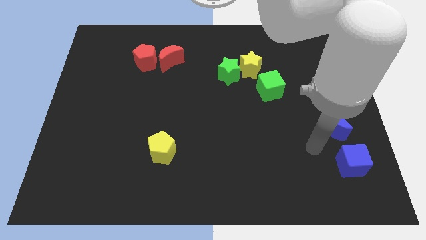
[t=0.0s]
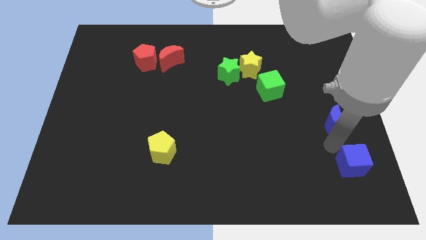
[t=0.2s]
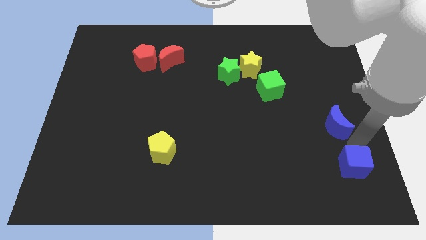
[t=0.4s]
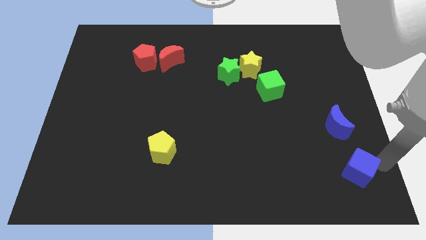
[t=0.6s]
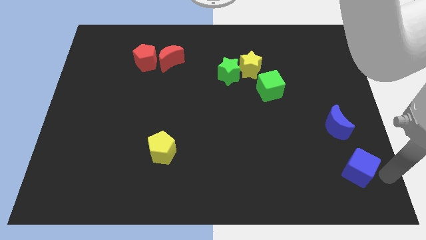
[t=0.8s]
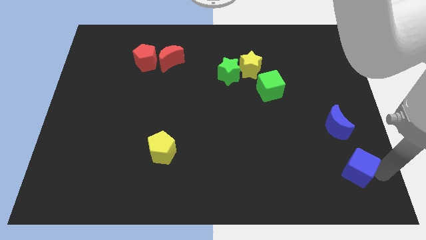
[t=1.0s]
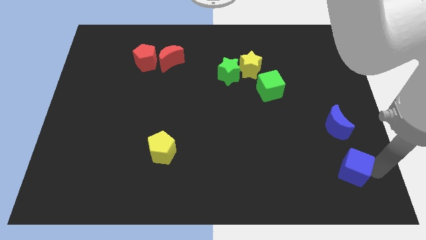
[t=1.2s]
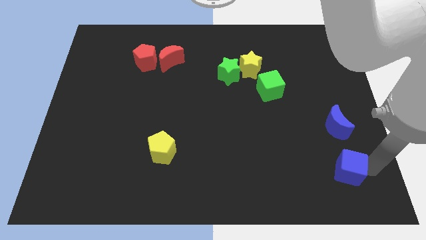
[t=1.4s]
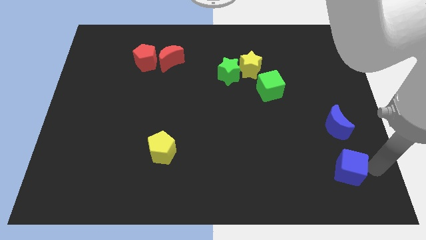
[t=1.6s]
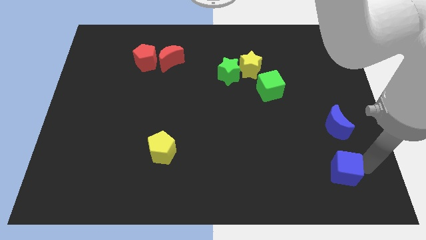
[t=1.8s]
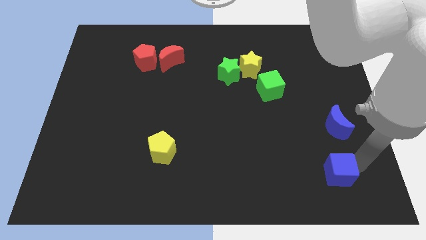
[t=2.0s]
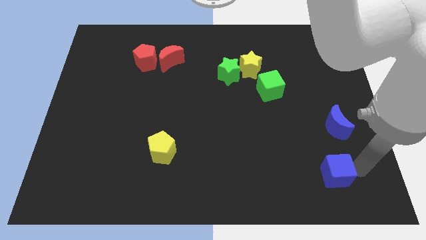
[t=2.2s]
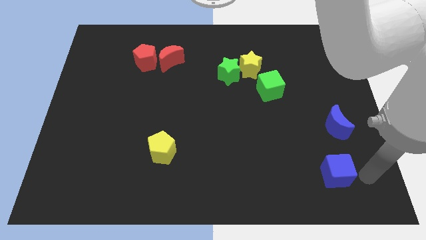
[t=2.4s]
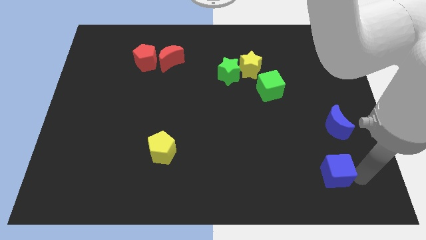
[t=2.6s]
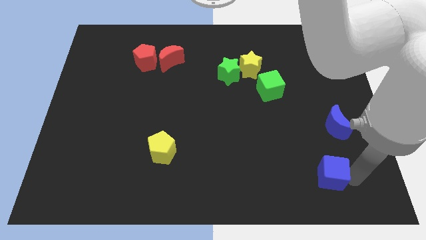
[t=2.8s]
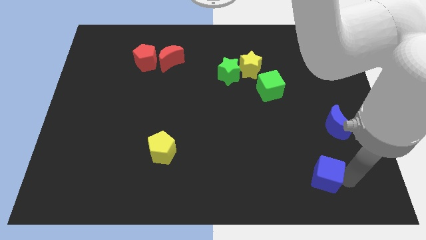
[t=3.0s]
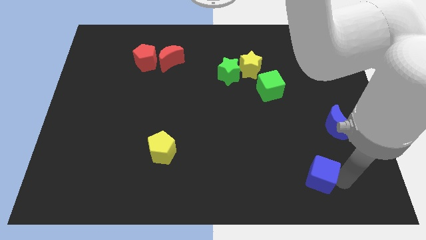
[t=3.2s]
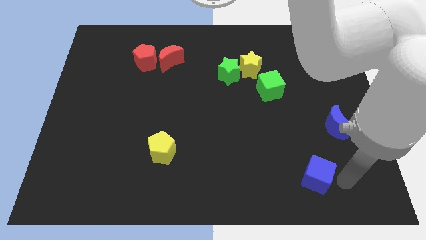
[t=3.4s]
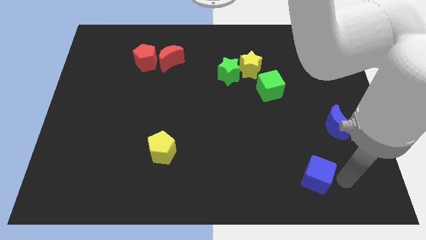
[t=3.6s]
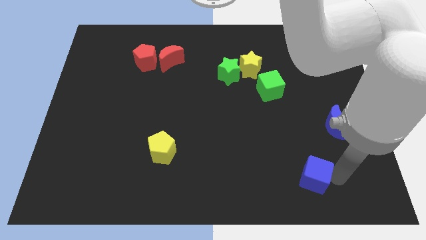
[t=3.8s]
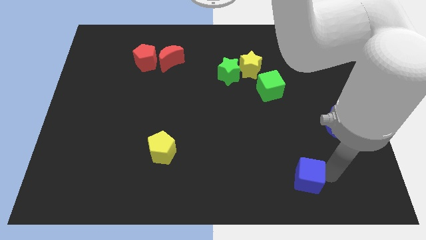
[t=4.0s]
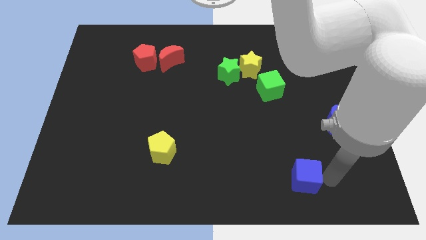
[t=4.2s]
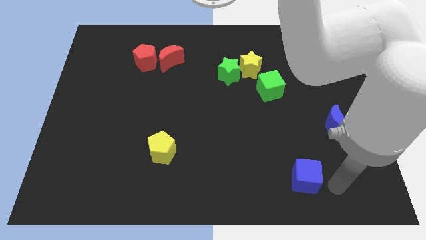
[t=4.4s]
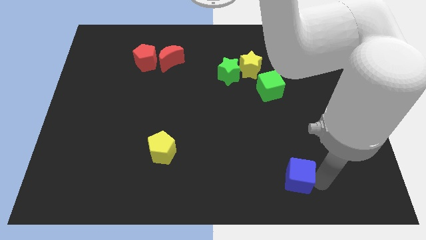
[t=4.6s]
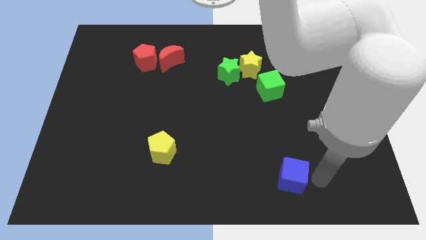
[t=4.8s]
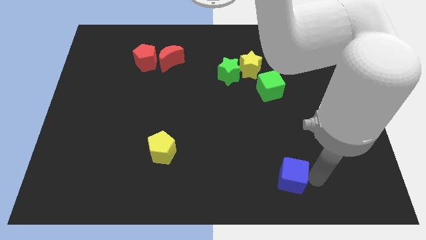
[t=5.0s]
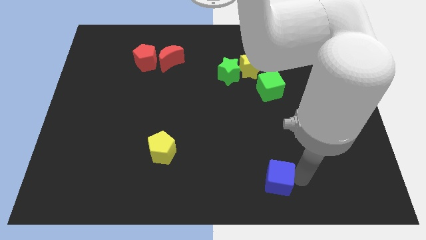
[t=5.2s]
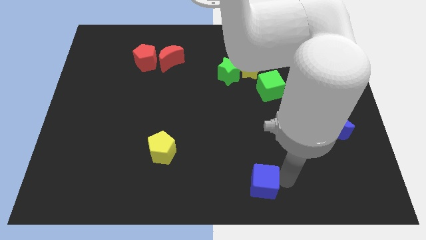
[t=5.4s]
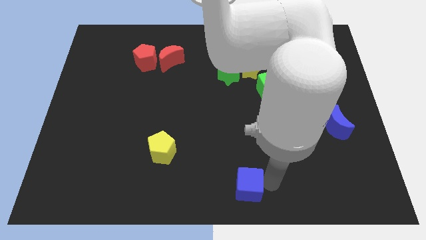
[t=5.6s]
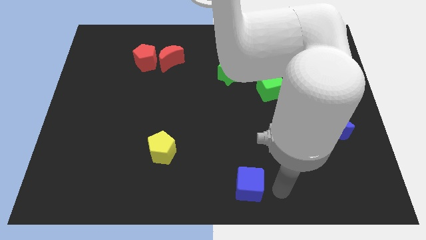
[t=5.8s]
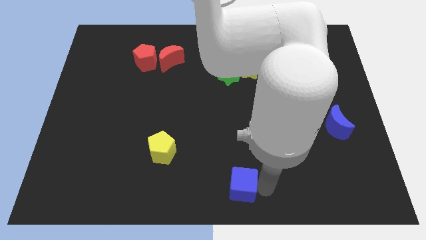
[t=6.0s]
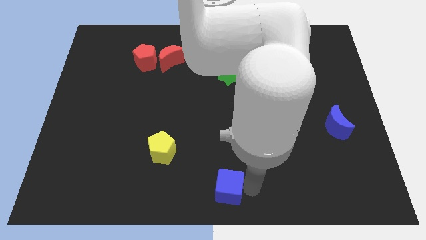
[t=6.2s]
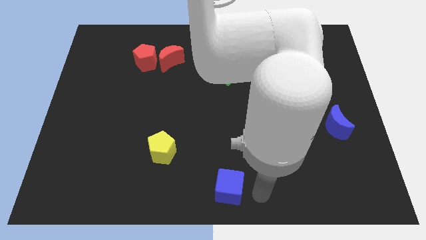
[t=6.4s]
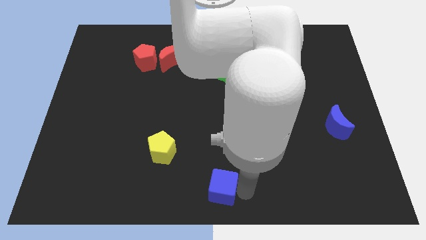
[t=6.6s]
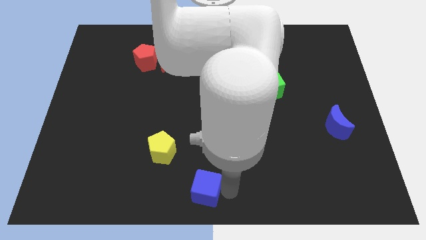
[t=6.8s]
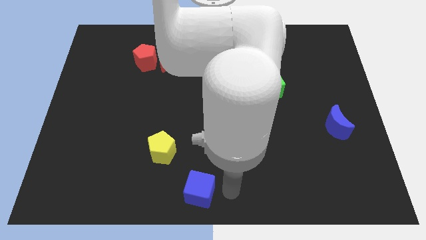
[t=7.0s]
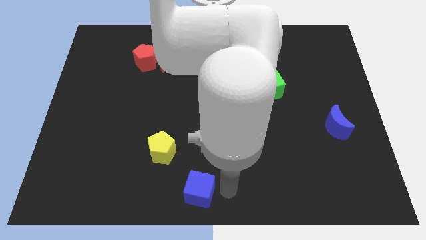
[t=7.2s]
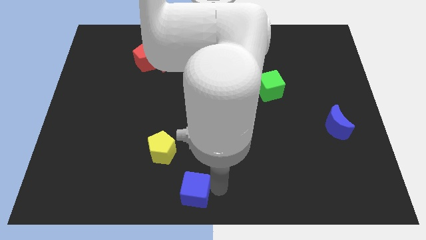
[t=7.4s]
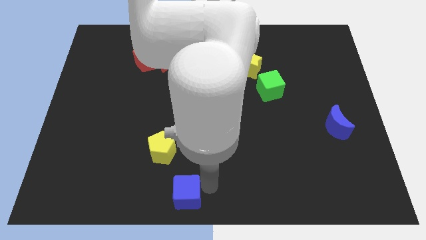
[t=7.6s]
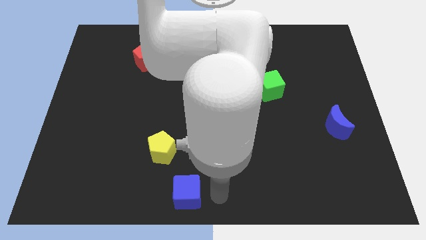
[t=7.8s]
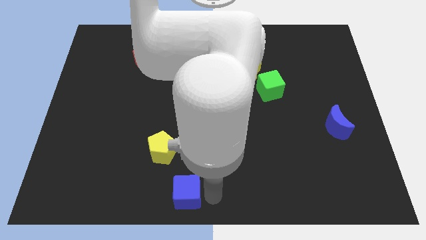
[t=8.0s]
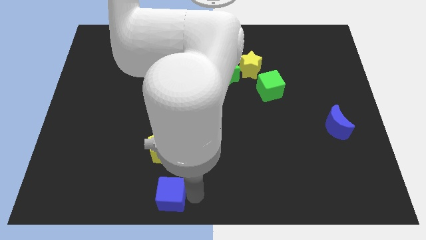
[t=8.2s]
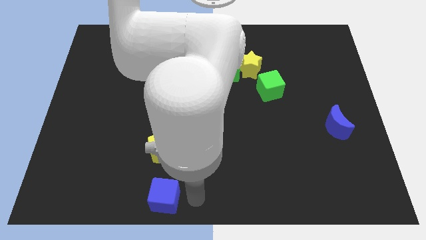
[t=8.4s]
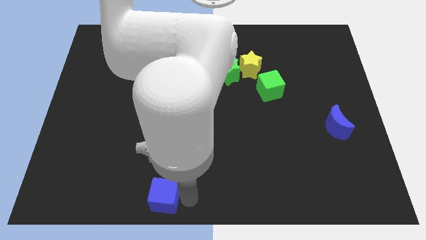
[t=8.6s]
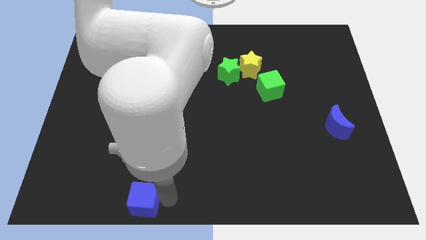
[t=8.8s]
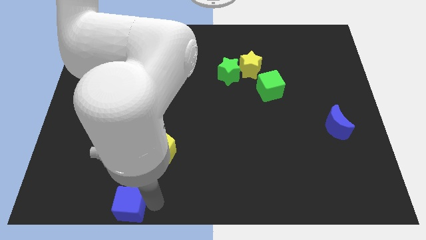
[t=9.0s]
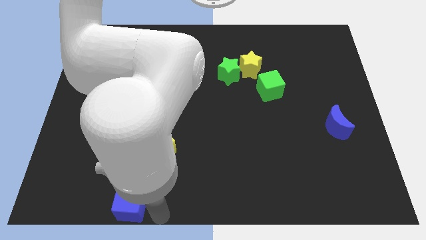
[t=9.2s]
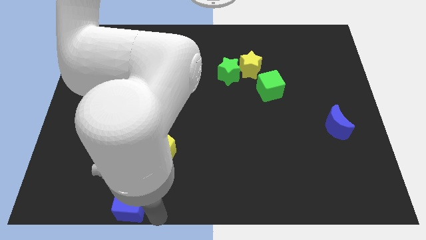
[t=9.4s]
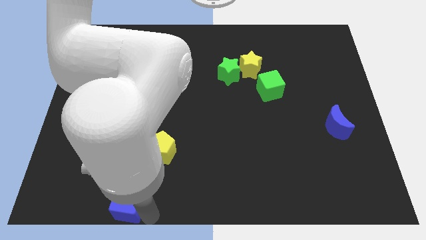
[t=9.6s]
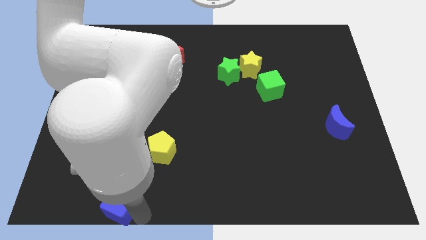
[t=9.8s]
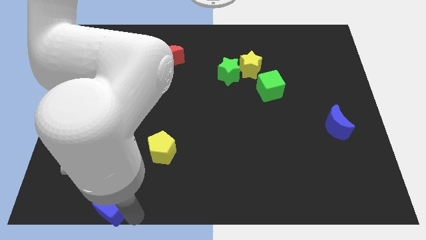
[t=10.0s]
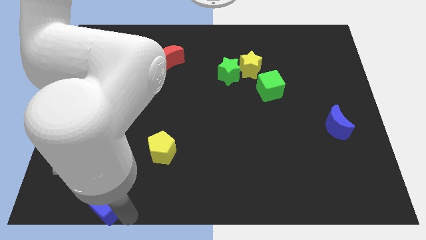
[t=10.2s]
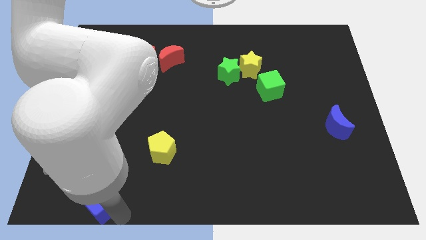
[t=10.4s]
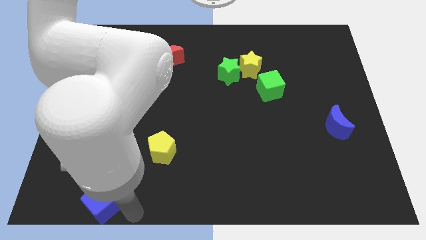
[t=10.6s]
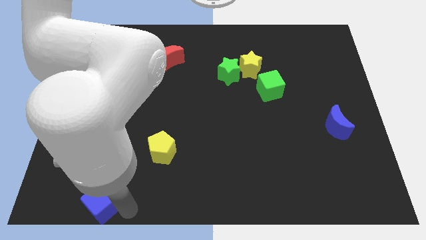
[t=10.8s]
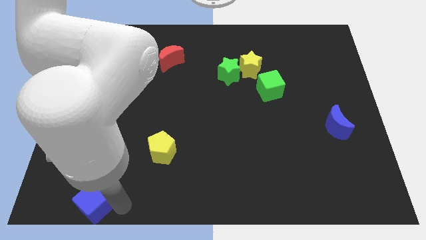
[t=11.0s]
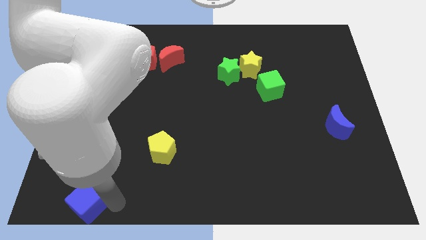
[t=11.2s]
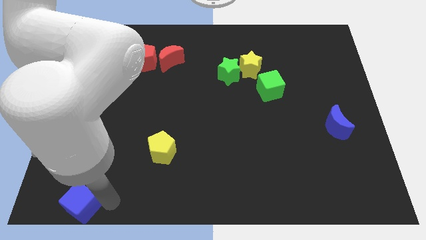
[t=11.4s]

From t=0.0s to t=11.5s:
slide the blue cube to the bottom left corner

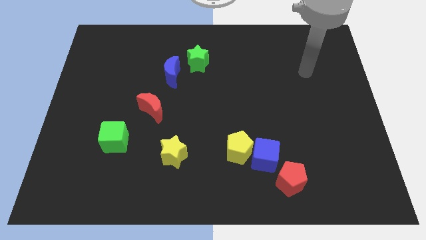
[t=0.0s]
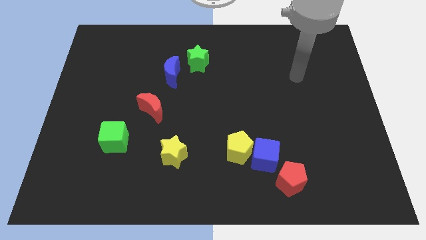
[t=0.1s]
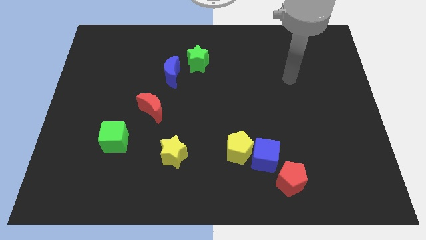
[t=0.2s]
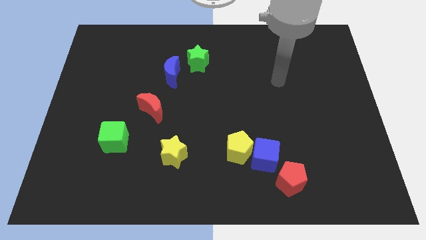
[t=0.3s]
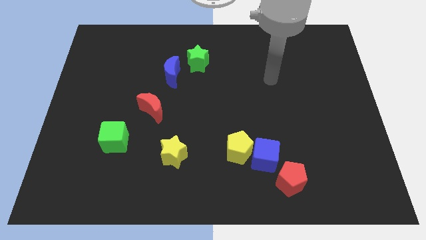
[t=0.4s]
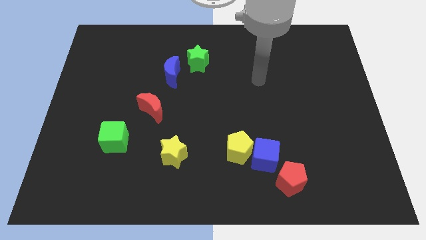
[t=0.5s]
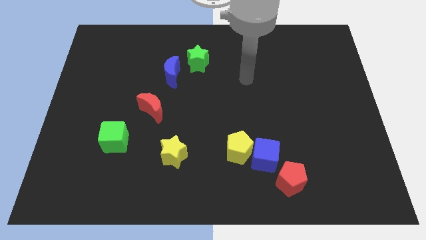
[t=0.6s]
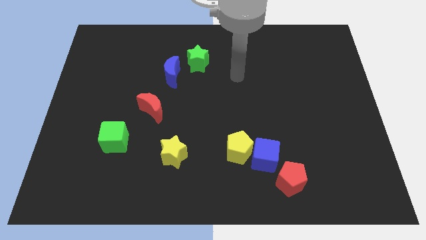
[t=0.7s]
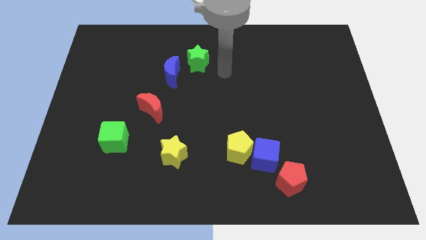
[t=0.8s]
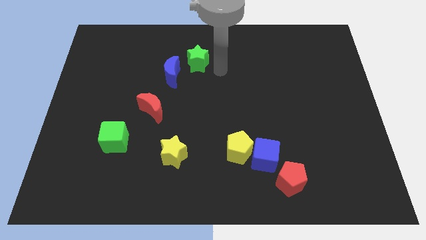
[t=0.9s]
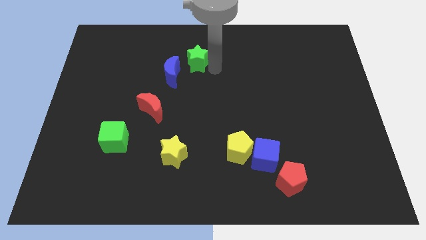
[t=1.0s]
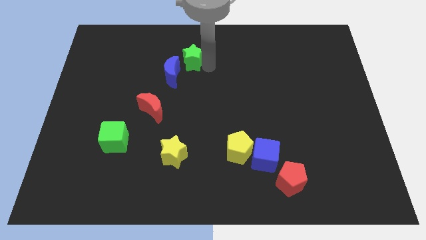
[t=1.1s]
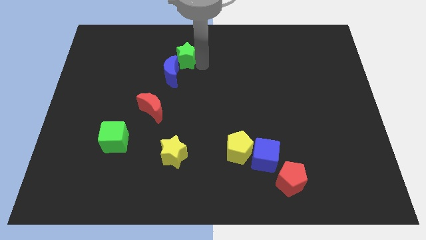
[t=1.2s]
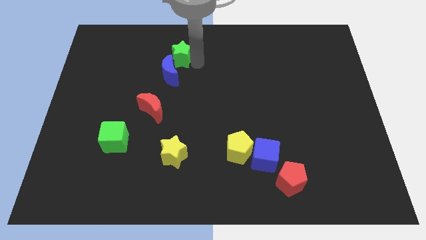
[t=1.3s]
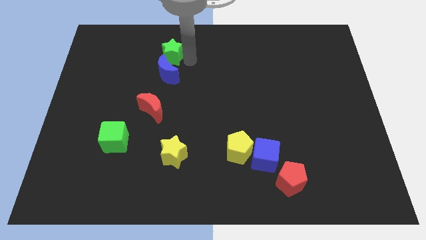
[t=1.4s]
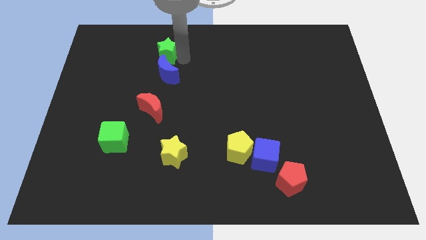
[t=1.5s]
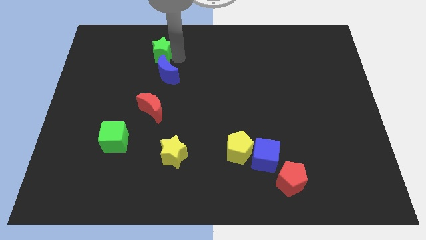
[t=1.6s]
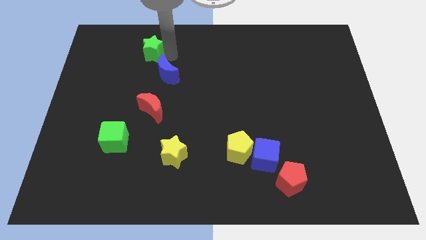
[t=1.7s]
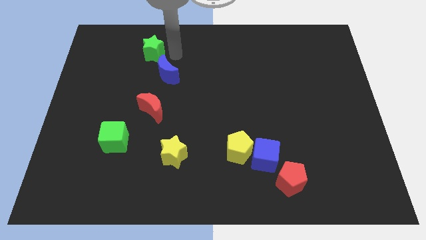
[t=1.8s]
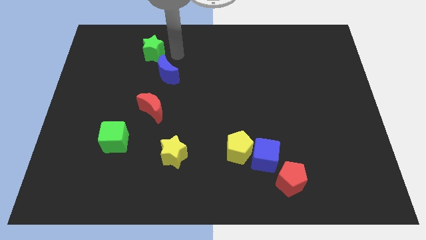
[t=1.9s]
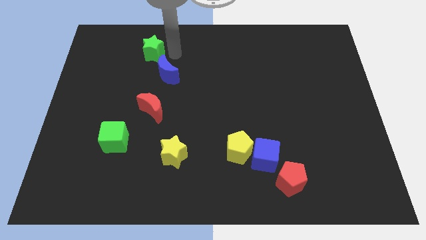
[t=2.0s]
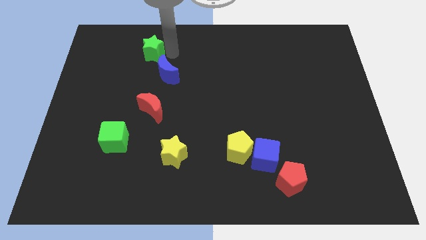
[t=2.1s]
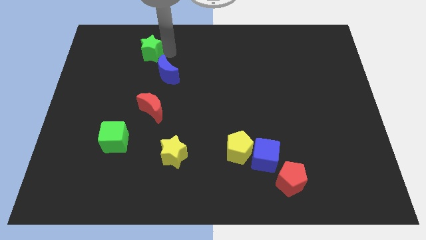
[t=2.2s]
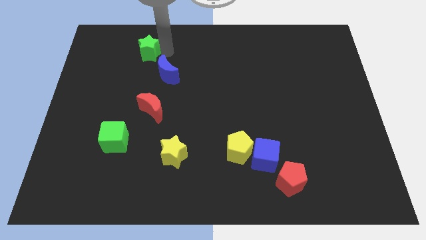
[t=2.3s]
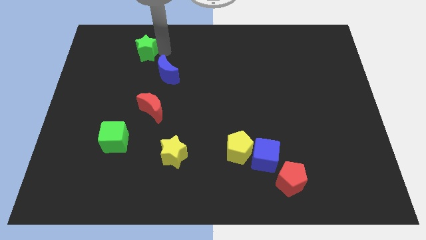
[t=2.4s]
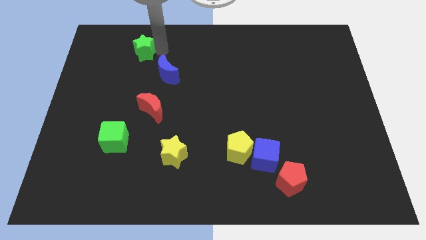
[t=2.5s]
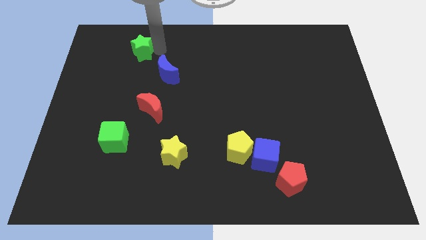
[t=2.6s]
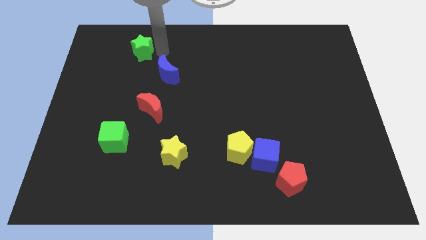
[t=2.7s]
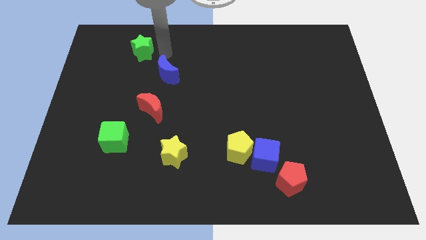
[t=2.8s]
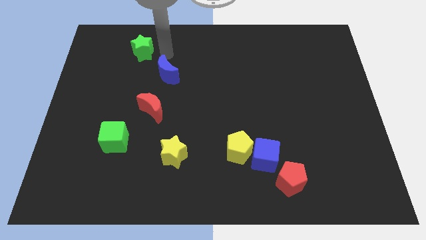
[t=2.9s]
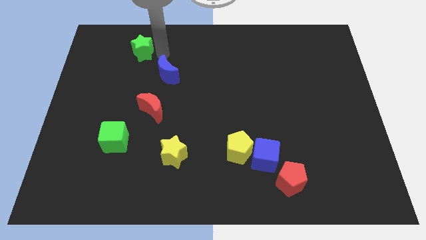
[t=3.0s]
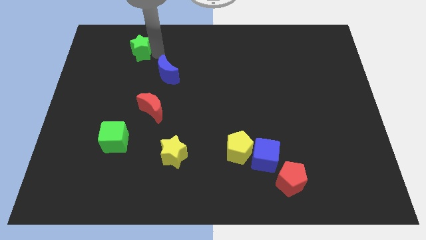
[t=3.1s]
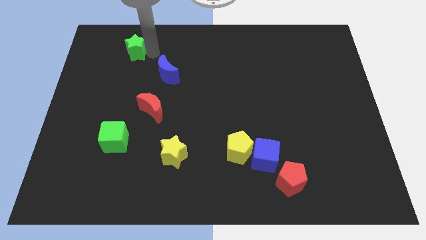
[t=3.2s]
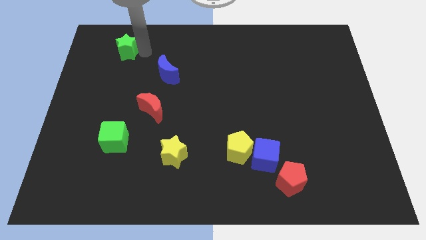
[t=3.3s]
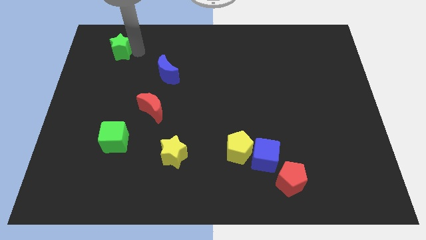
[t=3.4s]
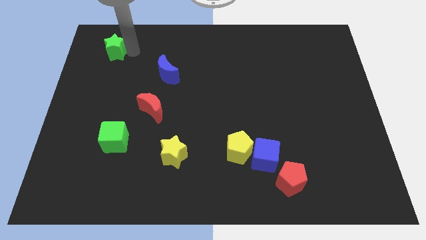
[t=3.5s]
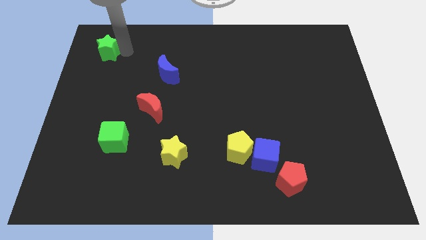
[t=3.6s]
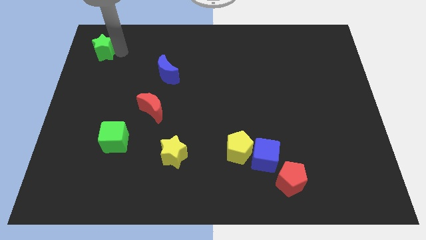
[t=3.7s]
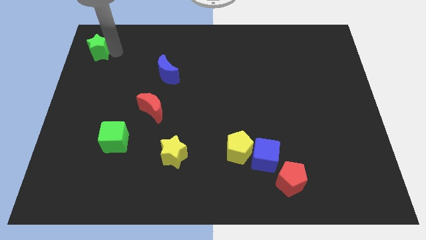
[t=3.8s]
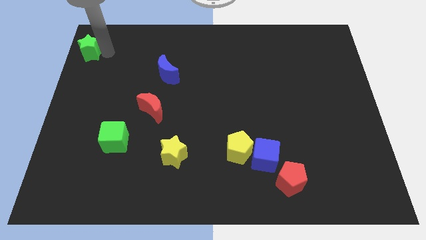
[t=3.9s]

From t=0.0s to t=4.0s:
slide the green star to the top left
